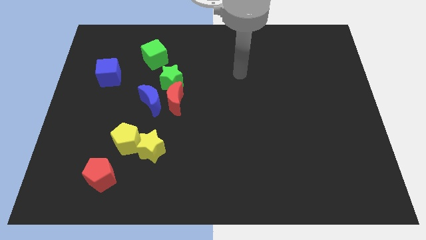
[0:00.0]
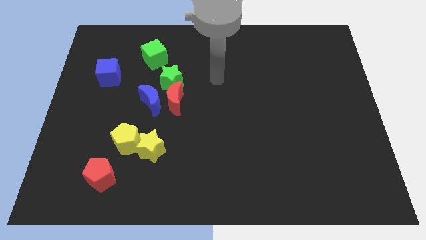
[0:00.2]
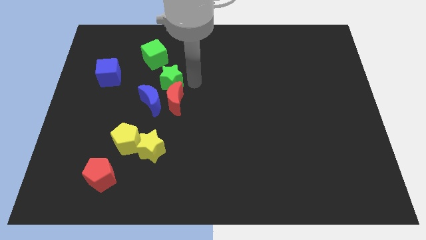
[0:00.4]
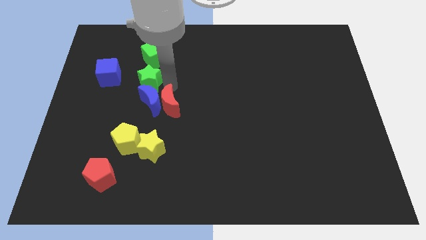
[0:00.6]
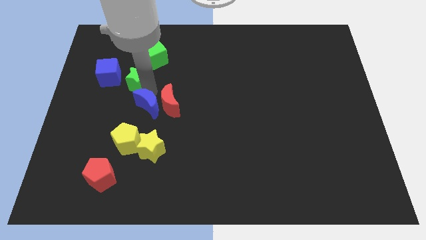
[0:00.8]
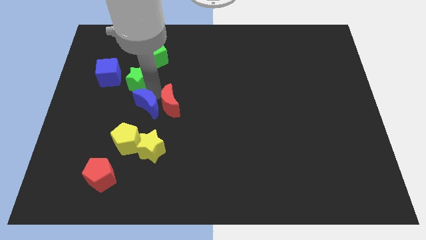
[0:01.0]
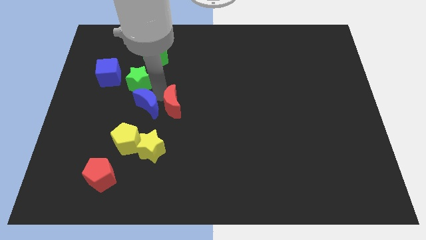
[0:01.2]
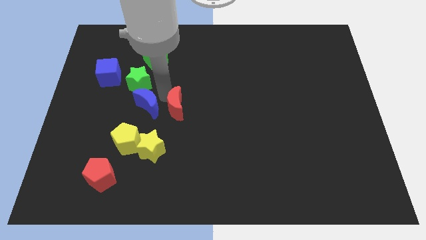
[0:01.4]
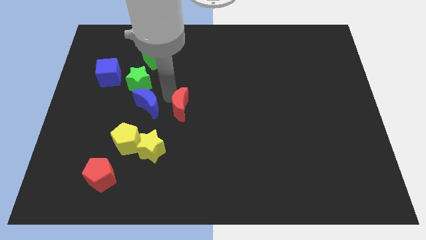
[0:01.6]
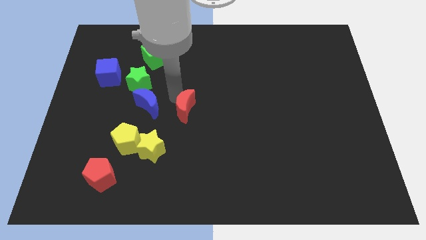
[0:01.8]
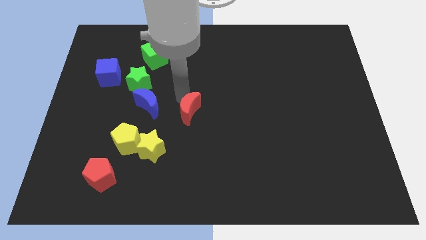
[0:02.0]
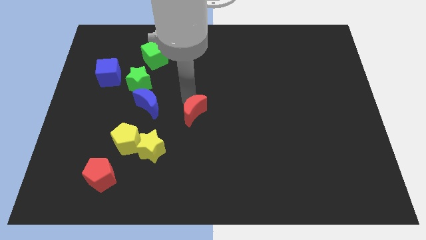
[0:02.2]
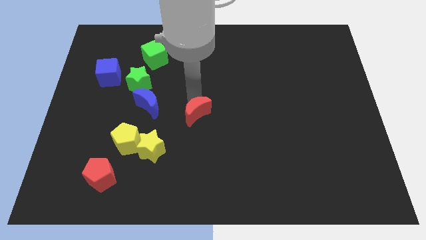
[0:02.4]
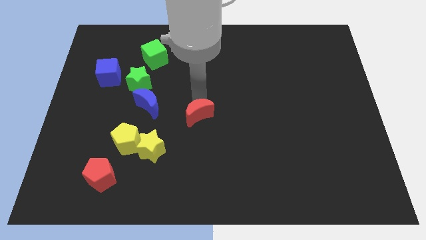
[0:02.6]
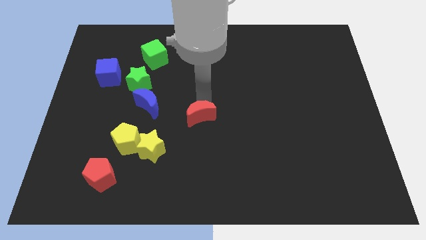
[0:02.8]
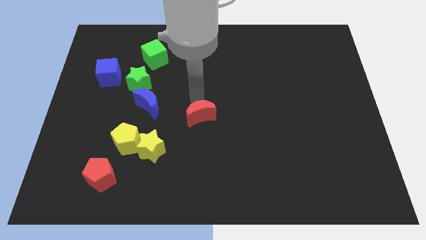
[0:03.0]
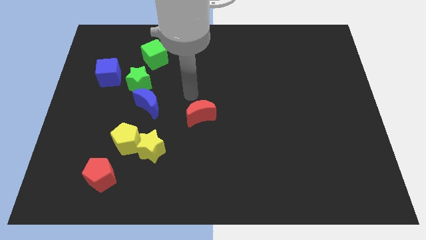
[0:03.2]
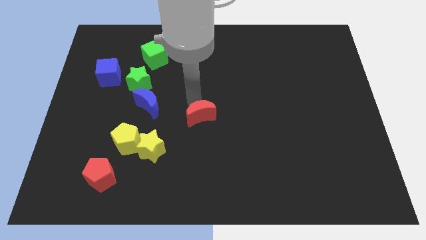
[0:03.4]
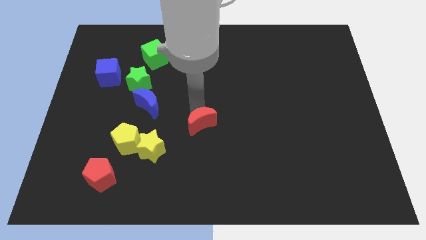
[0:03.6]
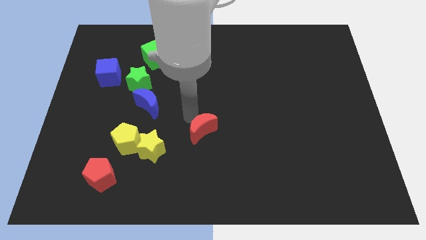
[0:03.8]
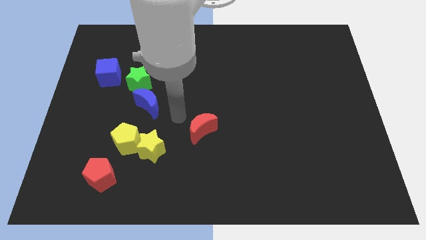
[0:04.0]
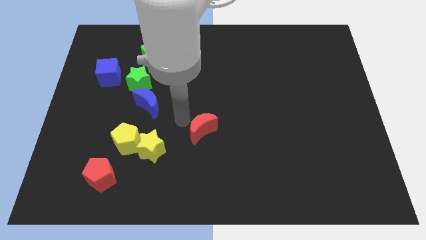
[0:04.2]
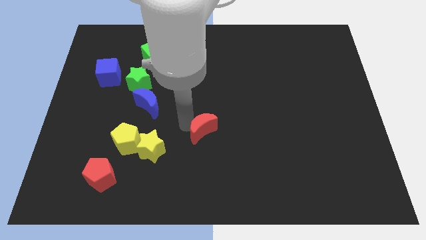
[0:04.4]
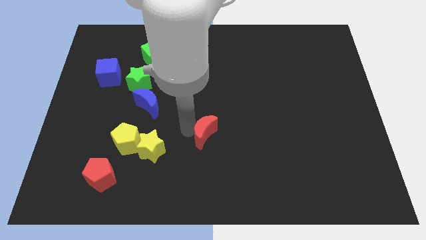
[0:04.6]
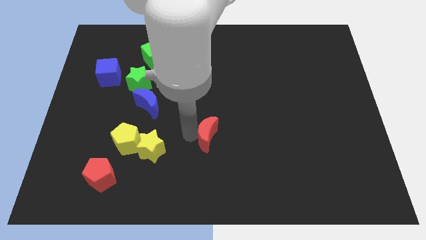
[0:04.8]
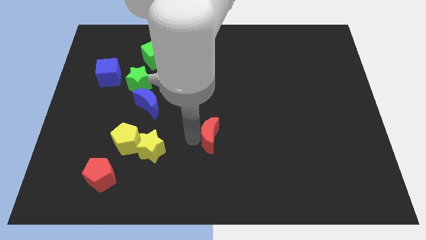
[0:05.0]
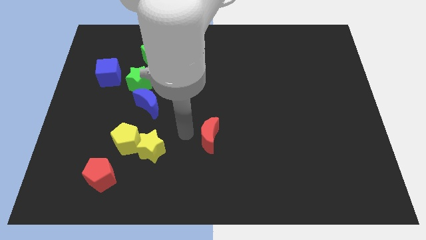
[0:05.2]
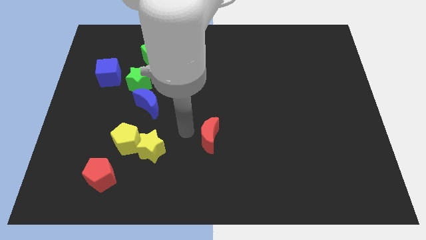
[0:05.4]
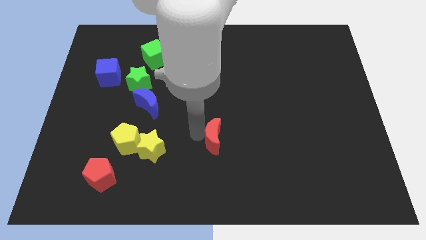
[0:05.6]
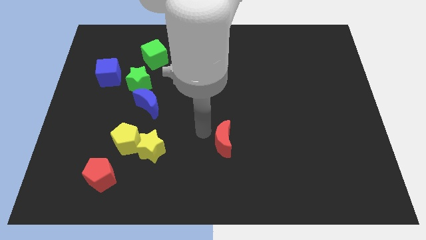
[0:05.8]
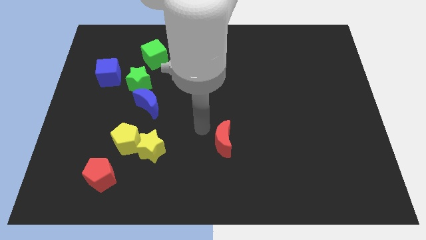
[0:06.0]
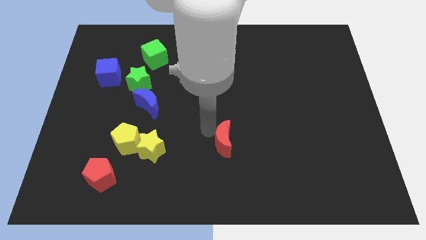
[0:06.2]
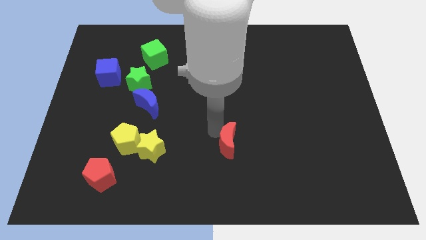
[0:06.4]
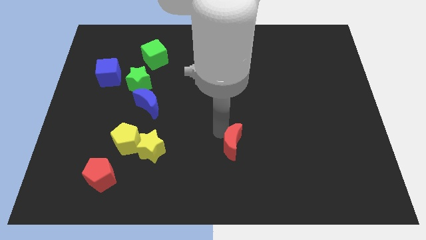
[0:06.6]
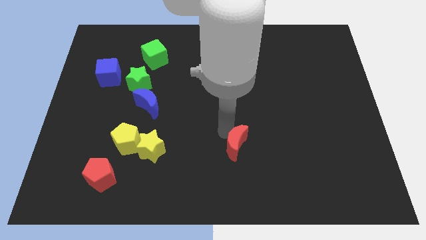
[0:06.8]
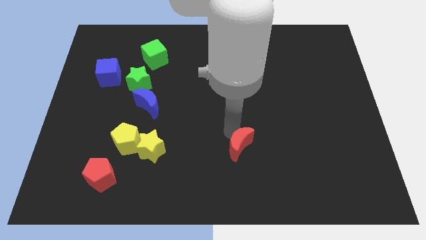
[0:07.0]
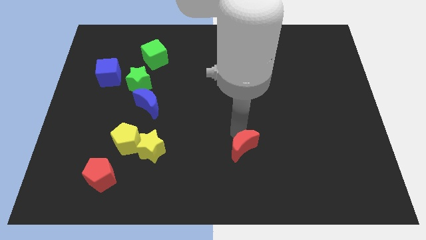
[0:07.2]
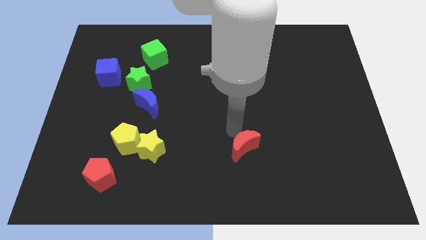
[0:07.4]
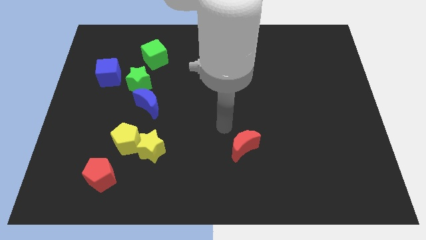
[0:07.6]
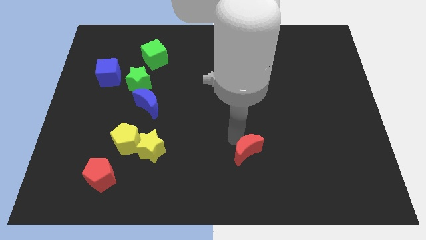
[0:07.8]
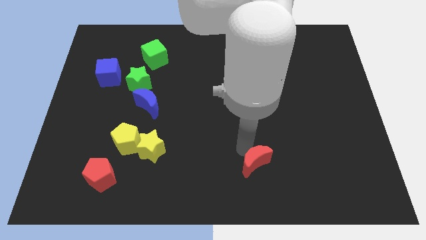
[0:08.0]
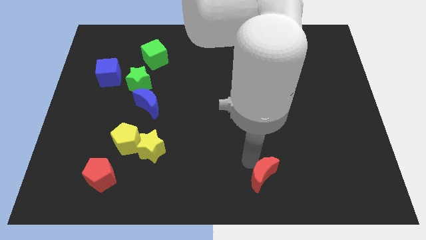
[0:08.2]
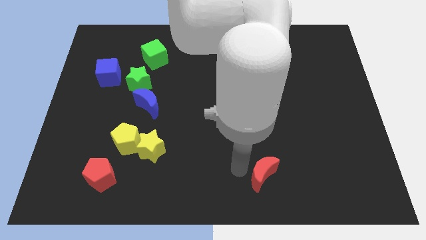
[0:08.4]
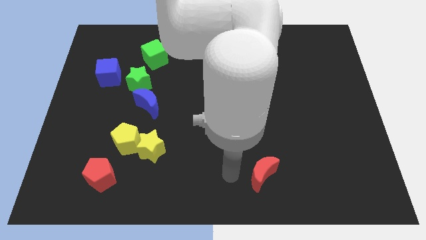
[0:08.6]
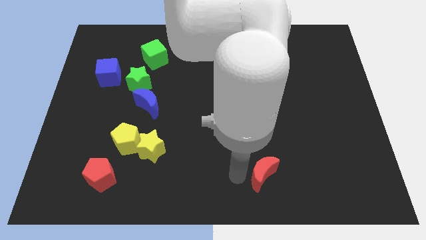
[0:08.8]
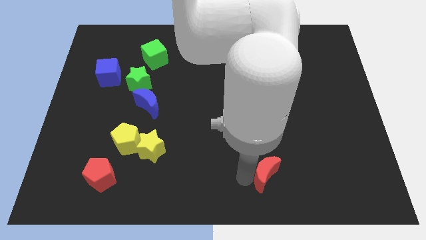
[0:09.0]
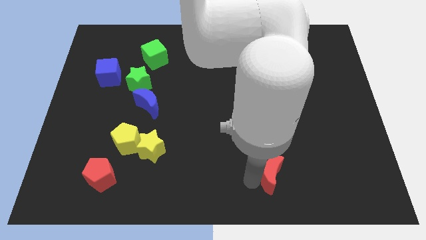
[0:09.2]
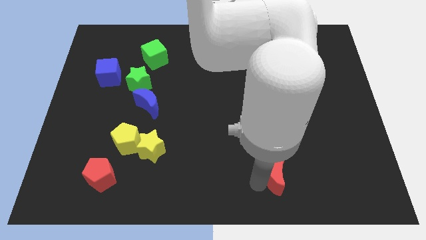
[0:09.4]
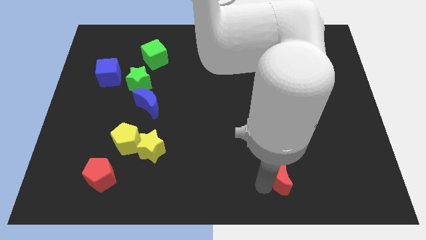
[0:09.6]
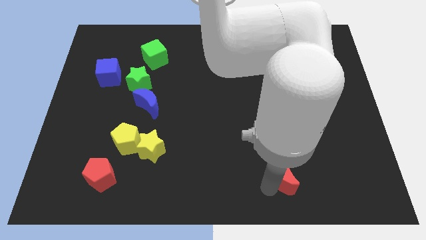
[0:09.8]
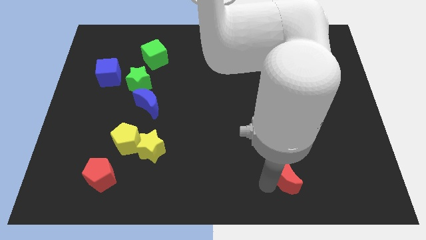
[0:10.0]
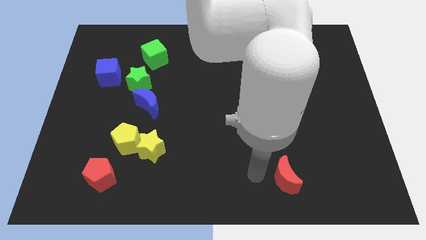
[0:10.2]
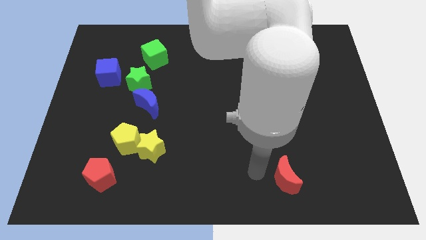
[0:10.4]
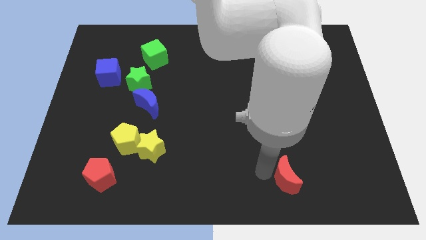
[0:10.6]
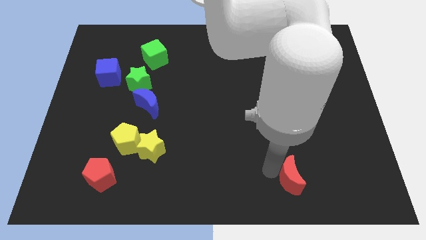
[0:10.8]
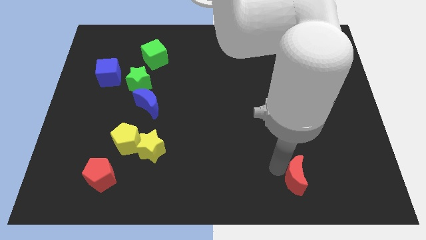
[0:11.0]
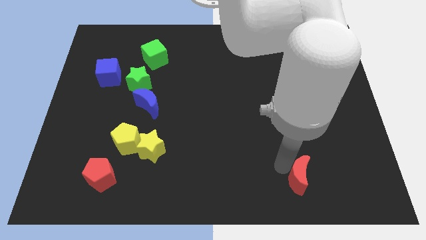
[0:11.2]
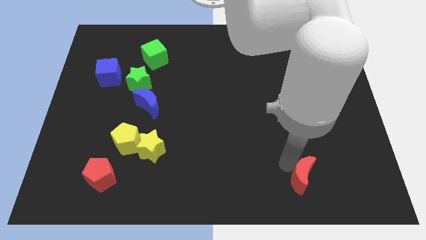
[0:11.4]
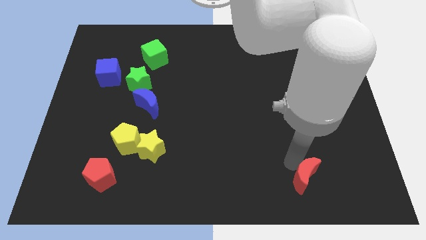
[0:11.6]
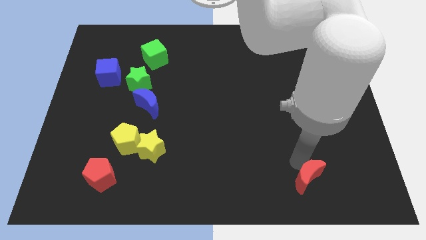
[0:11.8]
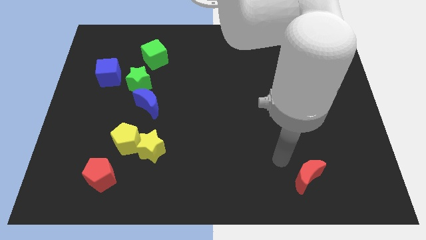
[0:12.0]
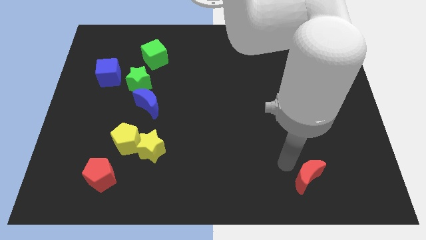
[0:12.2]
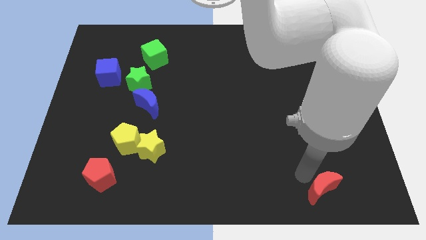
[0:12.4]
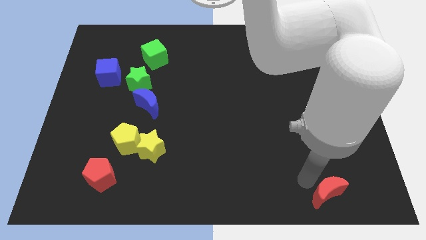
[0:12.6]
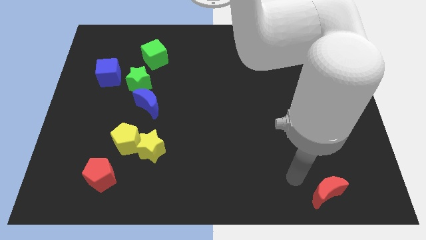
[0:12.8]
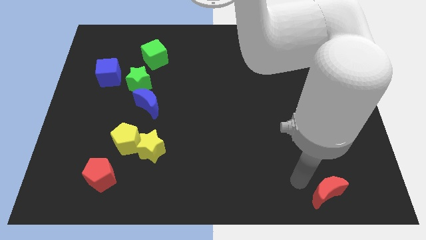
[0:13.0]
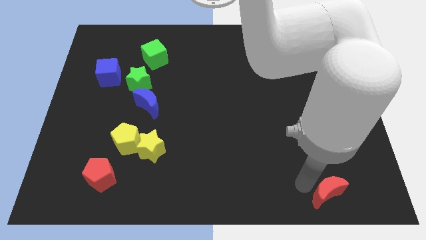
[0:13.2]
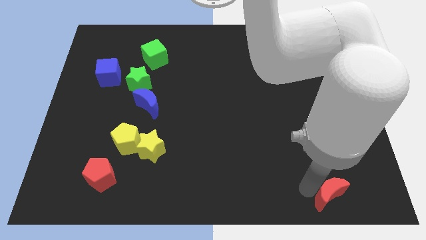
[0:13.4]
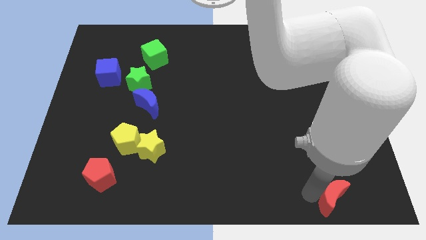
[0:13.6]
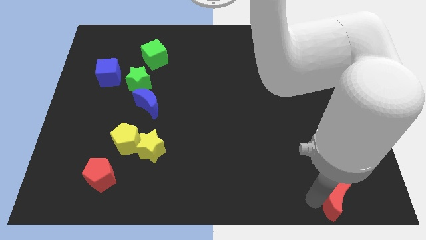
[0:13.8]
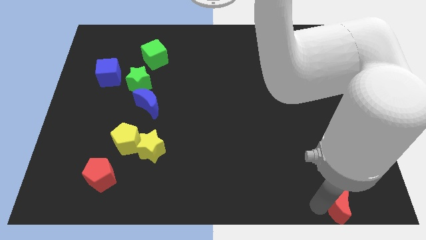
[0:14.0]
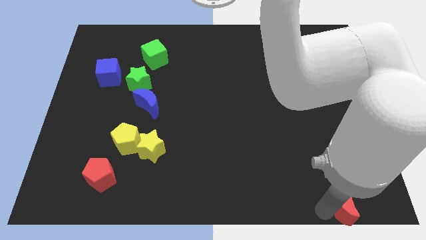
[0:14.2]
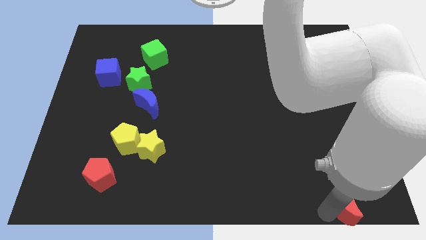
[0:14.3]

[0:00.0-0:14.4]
put the red moon to the bottom right corner

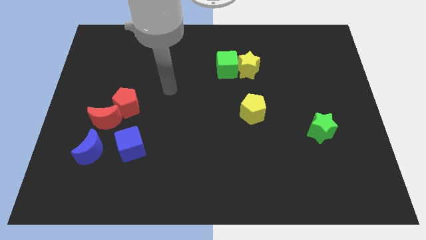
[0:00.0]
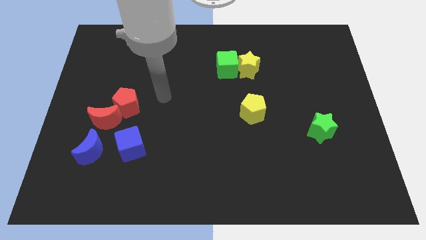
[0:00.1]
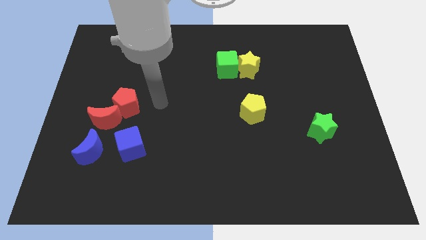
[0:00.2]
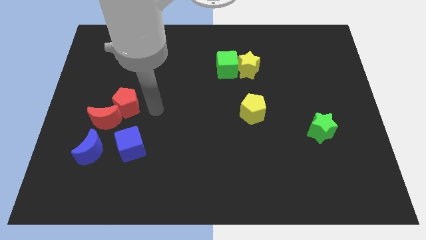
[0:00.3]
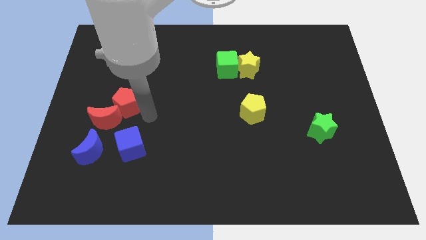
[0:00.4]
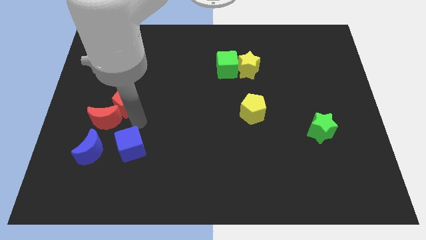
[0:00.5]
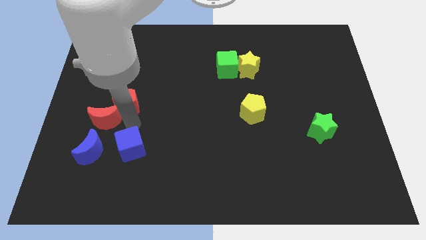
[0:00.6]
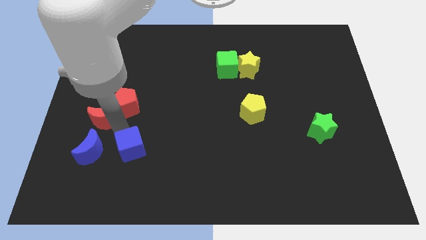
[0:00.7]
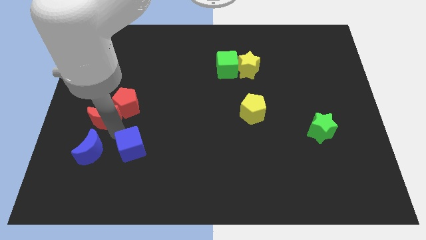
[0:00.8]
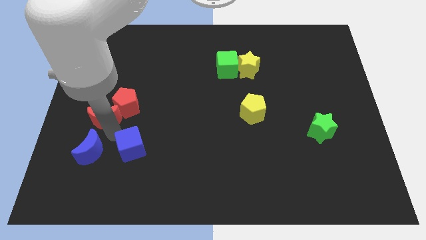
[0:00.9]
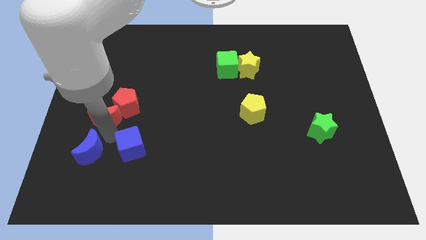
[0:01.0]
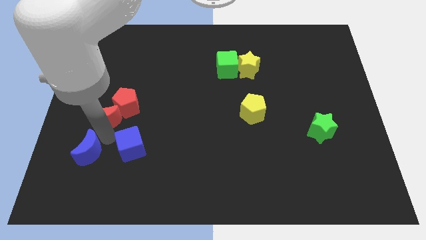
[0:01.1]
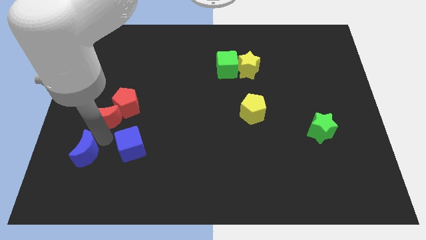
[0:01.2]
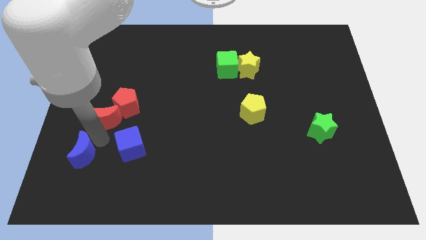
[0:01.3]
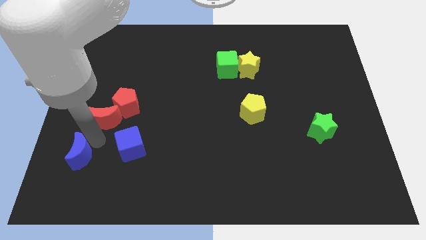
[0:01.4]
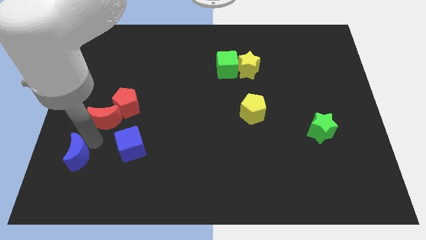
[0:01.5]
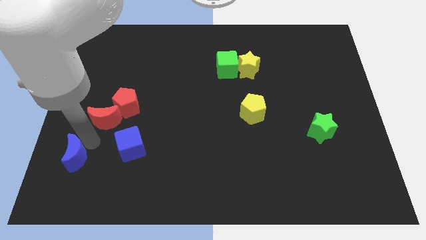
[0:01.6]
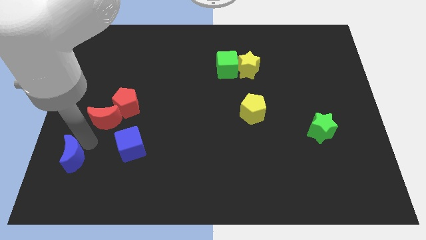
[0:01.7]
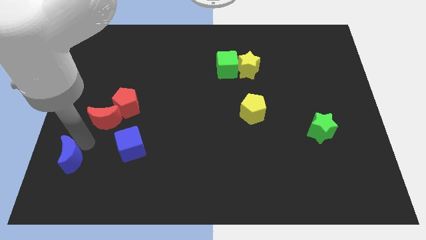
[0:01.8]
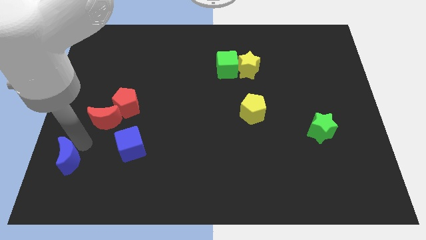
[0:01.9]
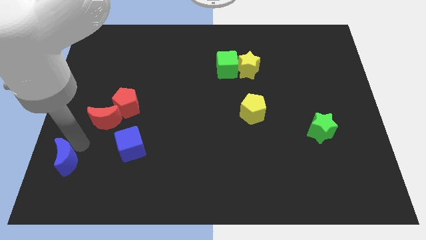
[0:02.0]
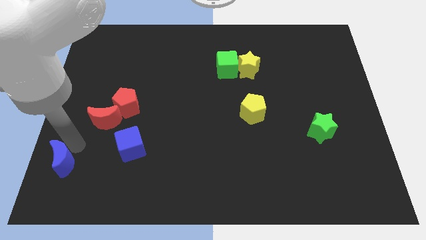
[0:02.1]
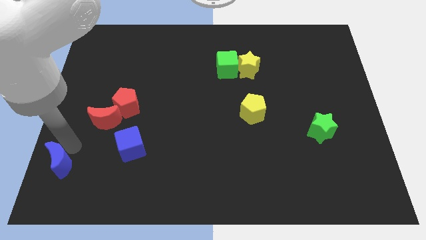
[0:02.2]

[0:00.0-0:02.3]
slide the blue moon to the bottom left
